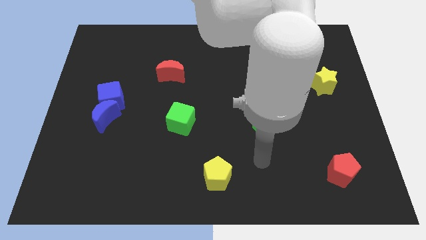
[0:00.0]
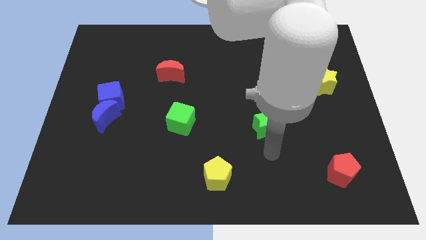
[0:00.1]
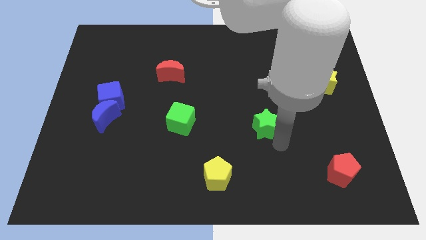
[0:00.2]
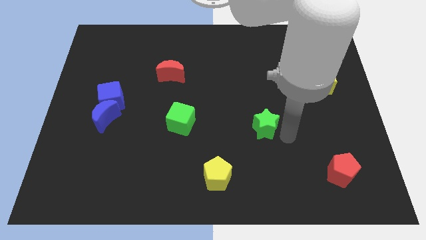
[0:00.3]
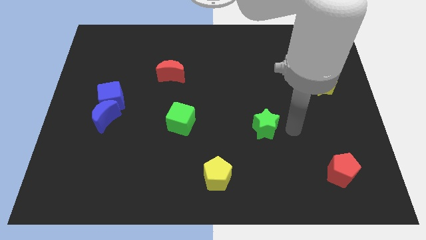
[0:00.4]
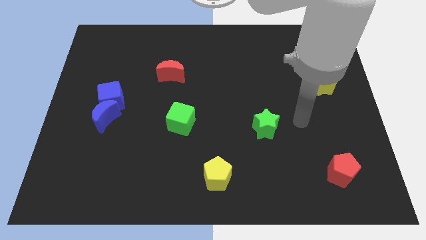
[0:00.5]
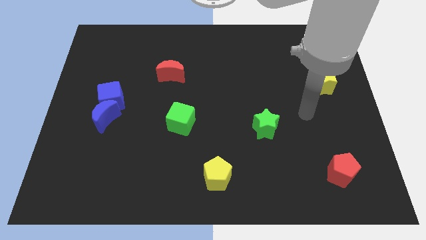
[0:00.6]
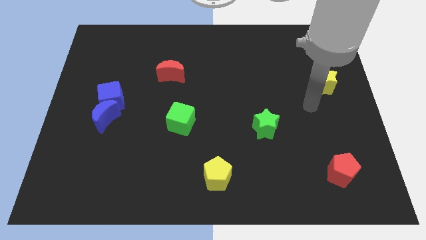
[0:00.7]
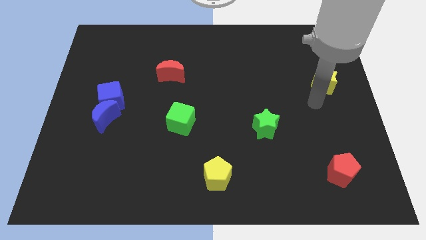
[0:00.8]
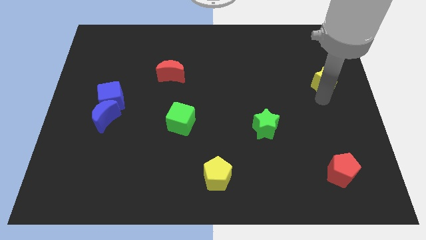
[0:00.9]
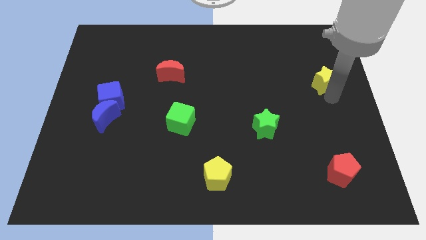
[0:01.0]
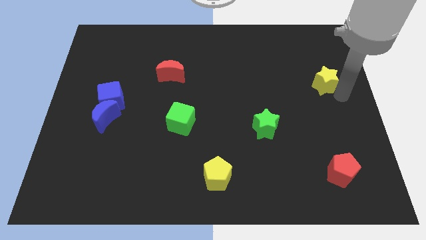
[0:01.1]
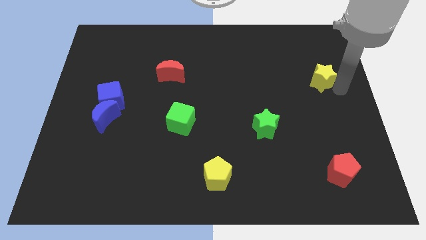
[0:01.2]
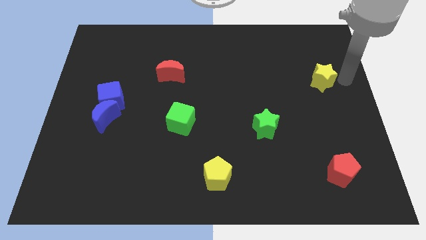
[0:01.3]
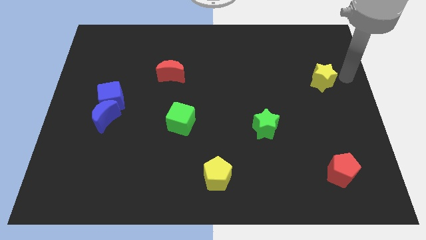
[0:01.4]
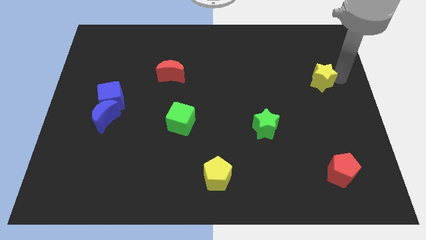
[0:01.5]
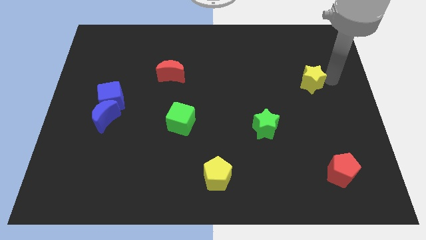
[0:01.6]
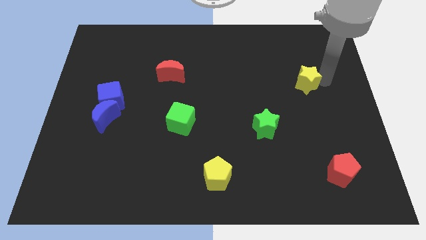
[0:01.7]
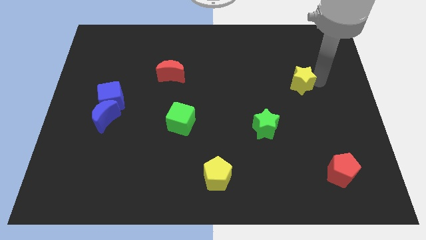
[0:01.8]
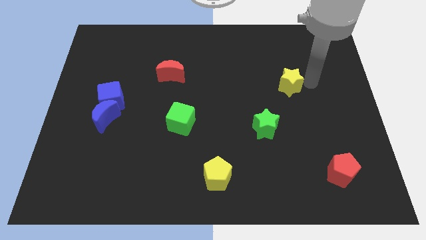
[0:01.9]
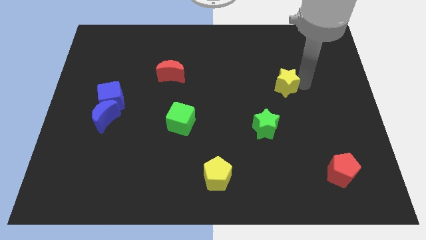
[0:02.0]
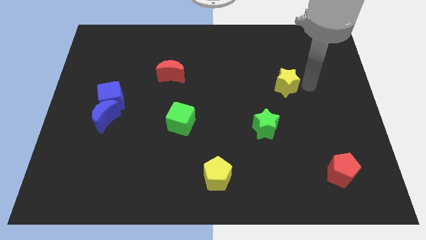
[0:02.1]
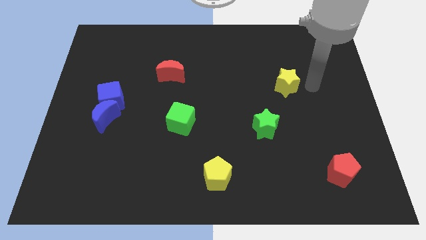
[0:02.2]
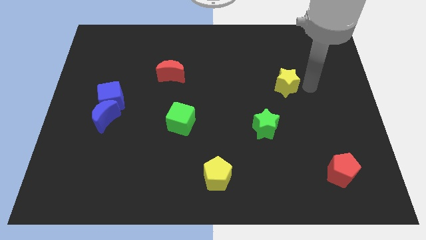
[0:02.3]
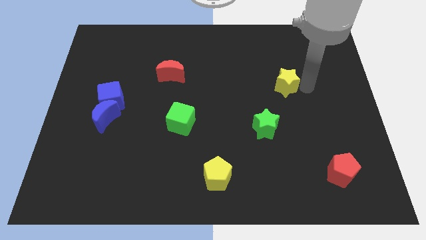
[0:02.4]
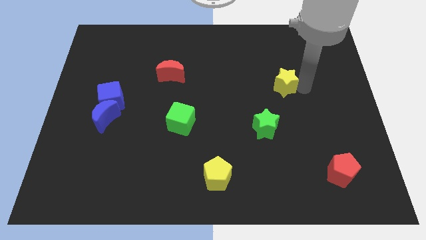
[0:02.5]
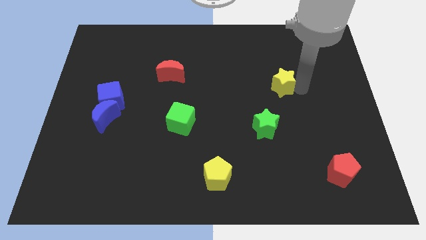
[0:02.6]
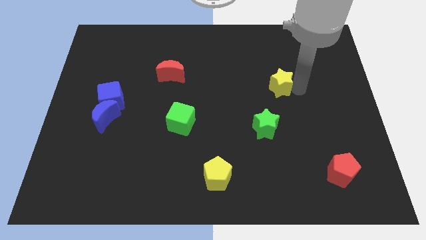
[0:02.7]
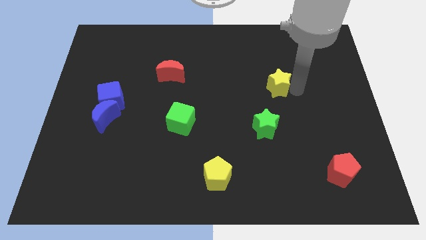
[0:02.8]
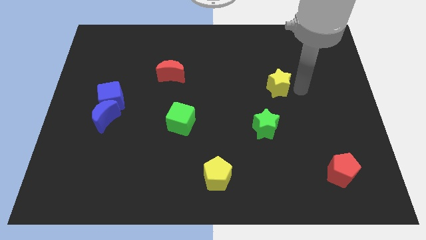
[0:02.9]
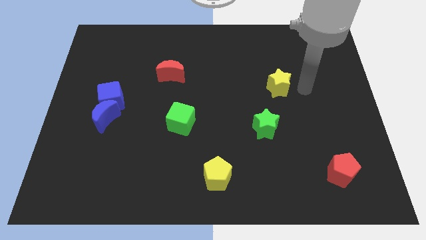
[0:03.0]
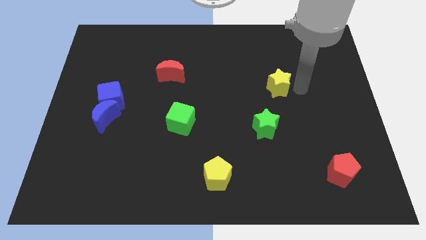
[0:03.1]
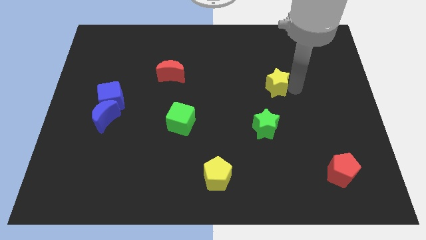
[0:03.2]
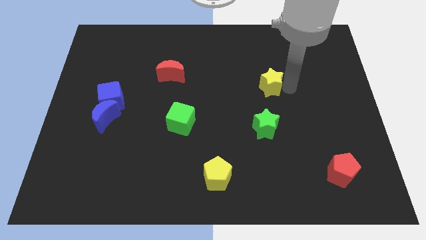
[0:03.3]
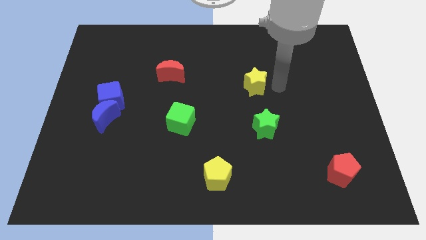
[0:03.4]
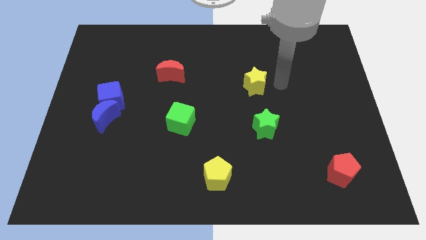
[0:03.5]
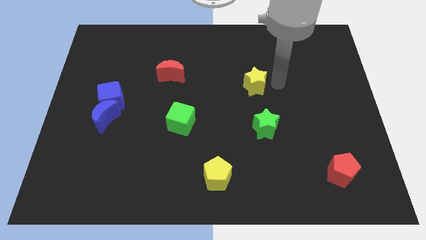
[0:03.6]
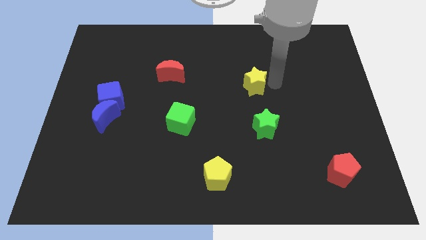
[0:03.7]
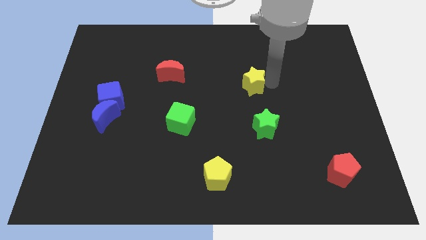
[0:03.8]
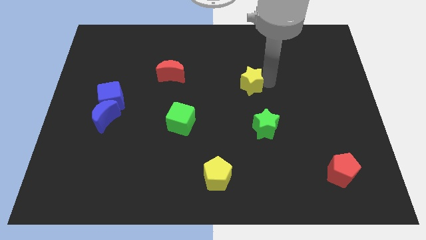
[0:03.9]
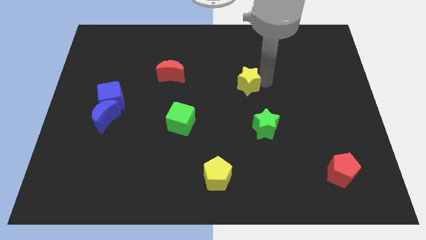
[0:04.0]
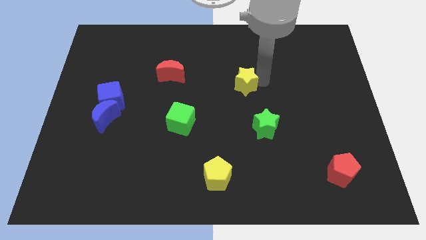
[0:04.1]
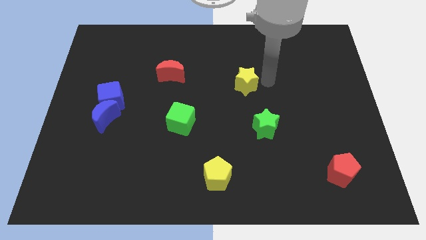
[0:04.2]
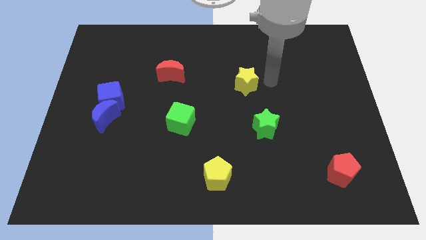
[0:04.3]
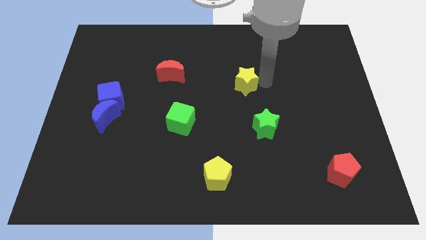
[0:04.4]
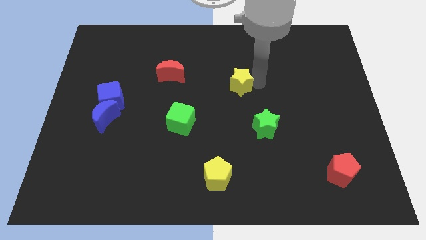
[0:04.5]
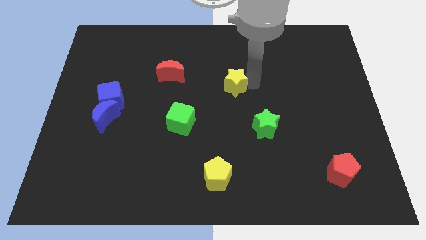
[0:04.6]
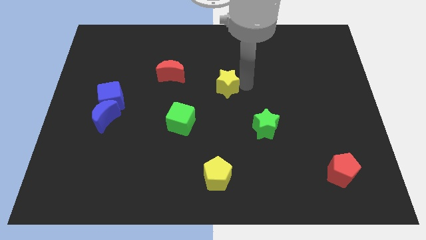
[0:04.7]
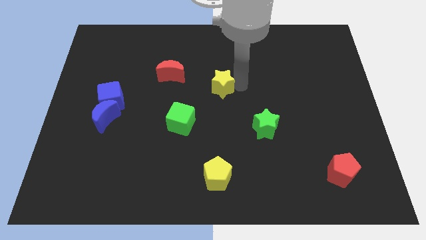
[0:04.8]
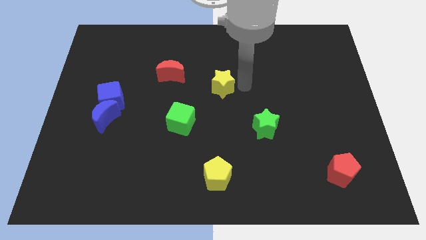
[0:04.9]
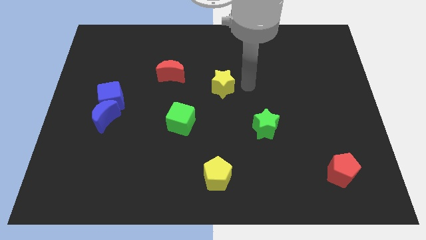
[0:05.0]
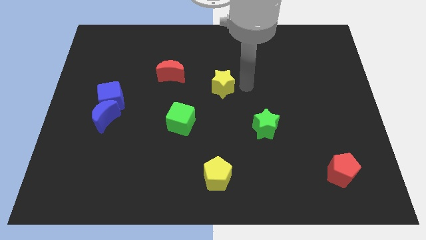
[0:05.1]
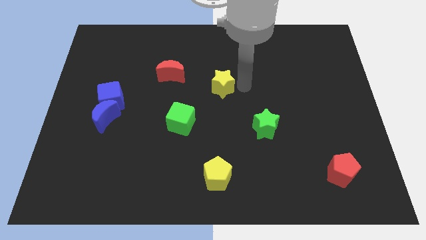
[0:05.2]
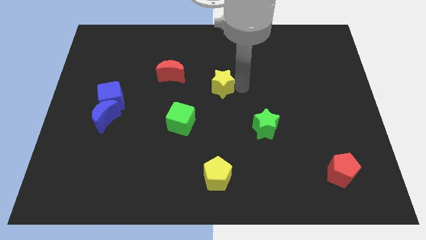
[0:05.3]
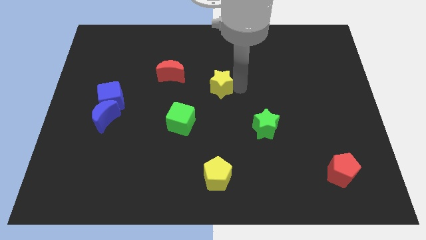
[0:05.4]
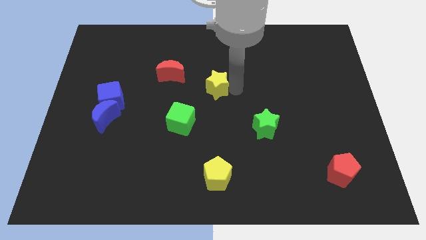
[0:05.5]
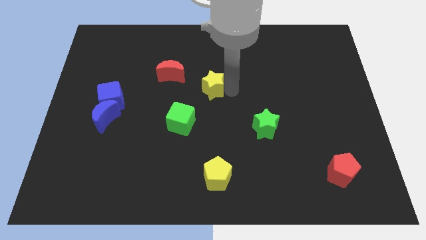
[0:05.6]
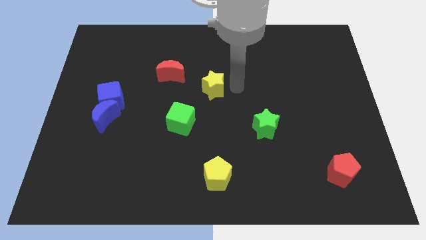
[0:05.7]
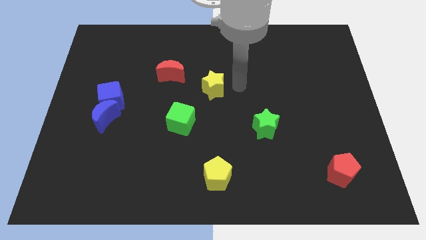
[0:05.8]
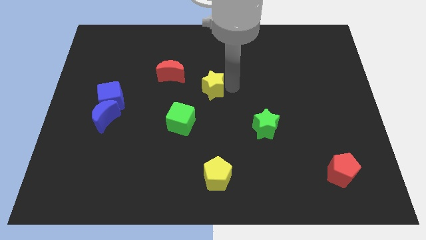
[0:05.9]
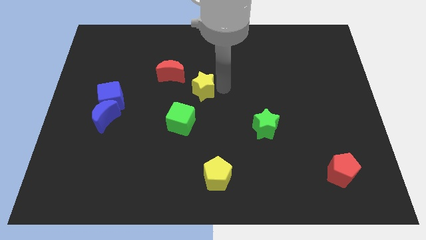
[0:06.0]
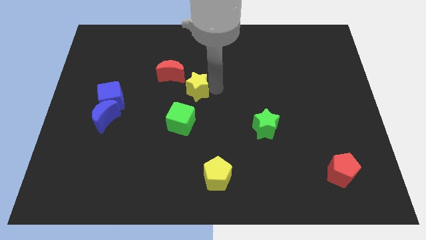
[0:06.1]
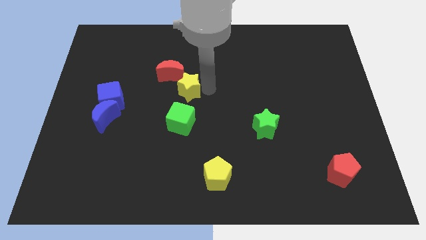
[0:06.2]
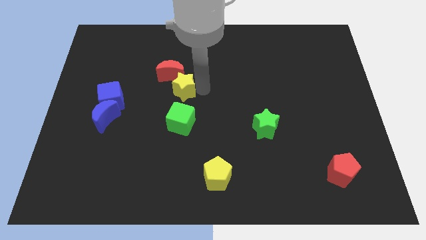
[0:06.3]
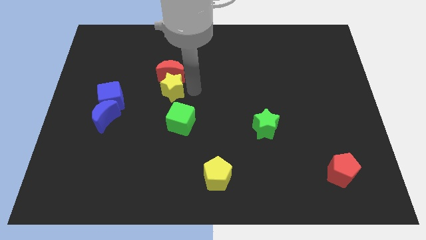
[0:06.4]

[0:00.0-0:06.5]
put the yellow star to the bottom left side of the red moon

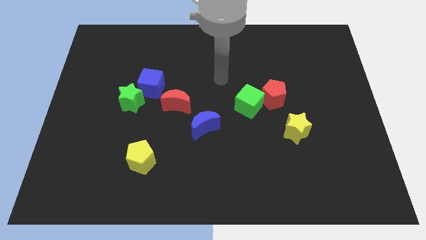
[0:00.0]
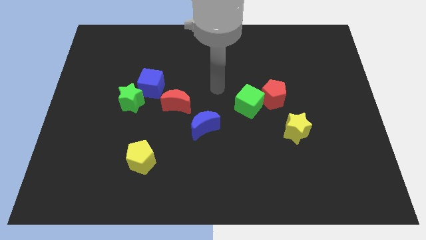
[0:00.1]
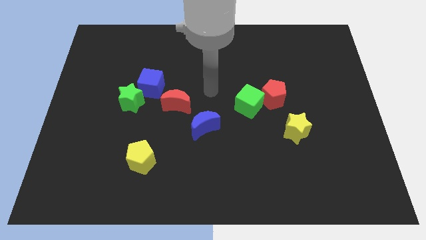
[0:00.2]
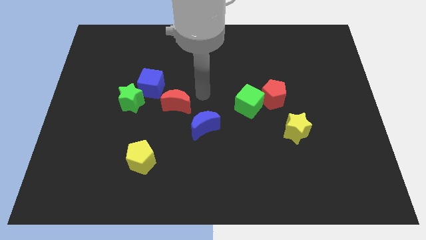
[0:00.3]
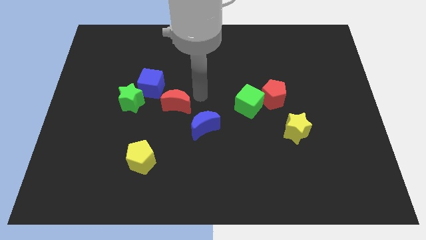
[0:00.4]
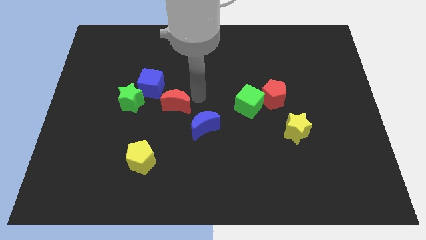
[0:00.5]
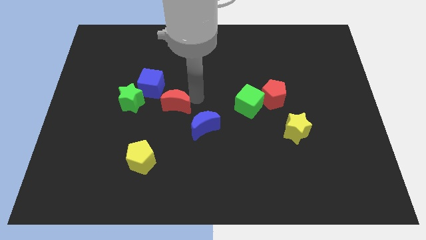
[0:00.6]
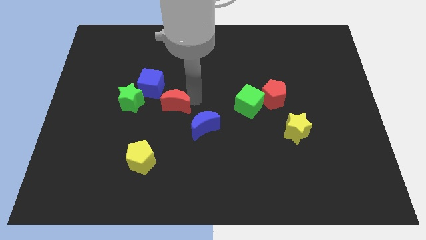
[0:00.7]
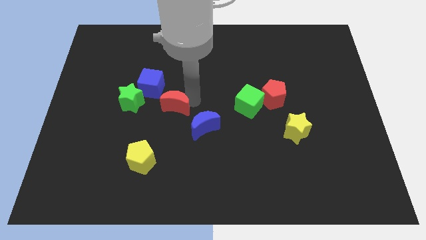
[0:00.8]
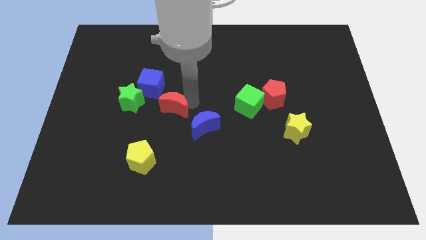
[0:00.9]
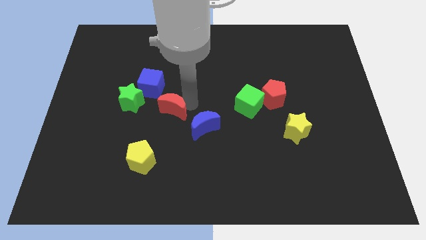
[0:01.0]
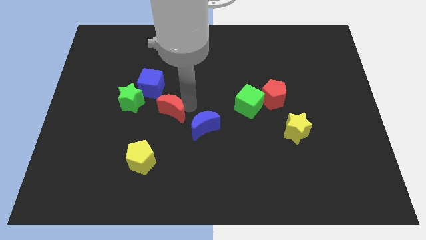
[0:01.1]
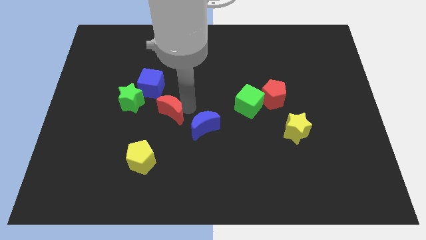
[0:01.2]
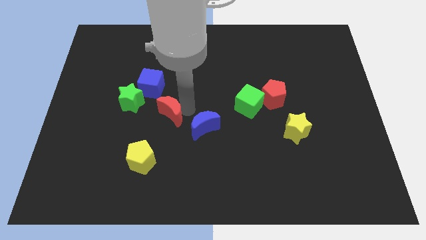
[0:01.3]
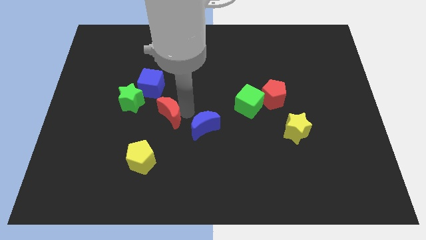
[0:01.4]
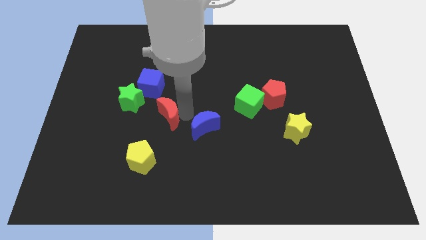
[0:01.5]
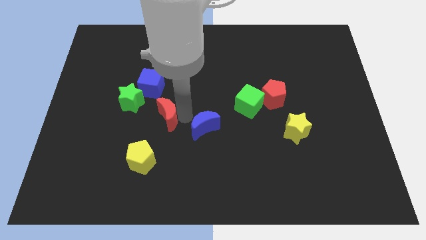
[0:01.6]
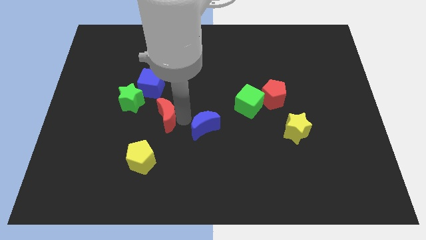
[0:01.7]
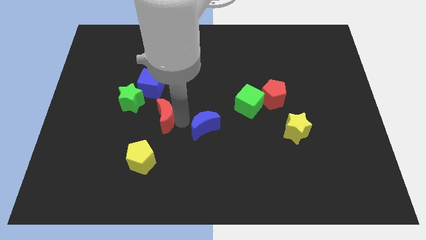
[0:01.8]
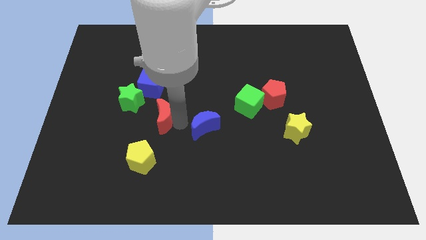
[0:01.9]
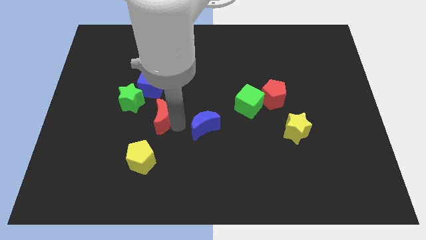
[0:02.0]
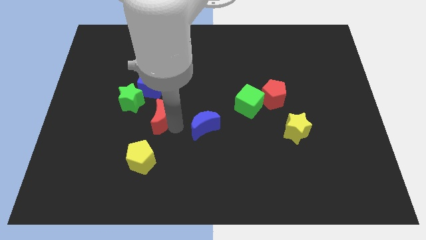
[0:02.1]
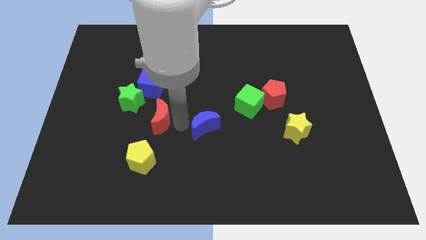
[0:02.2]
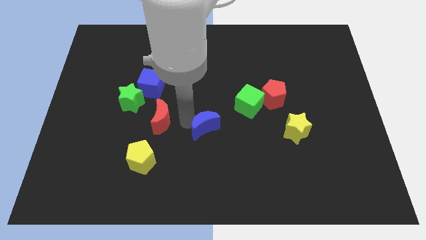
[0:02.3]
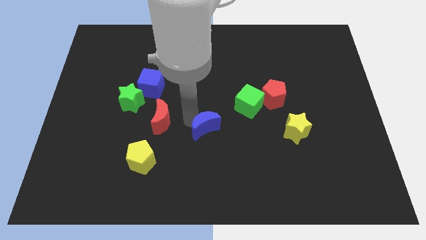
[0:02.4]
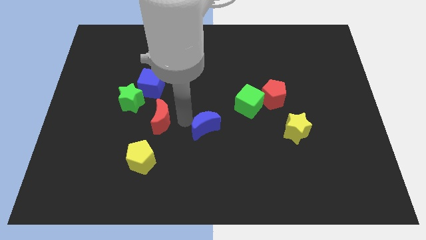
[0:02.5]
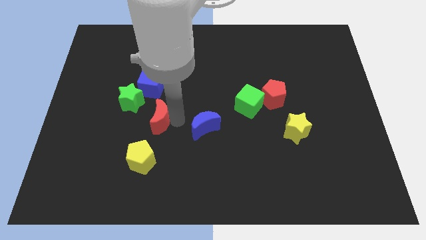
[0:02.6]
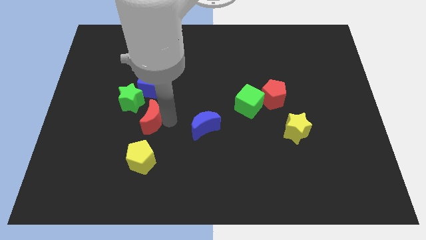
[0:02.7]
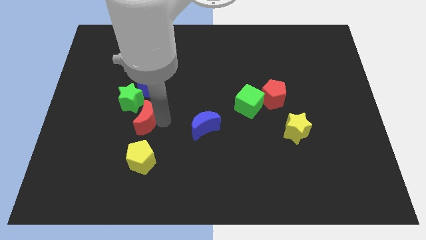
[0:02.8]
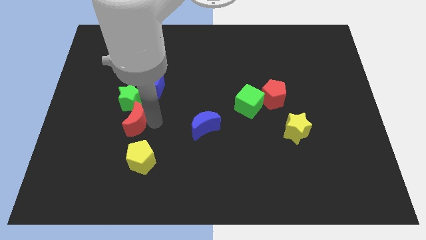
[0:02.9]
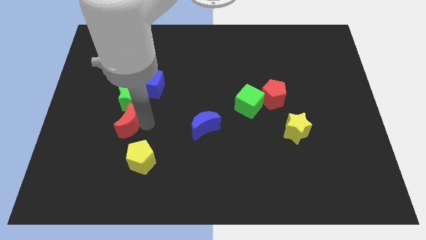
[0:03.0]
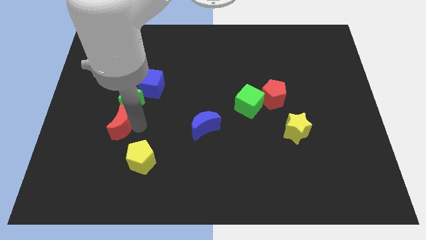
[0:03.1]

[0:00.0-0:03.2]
put the red moon to the bottom left of the green star
